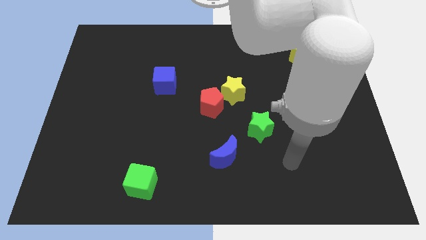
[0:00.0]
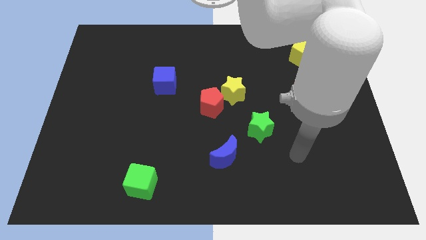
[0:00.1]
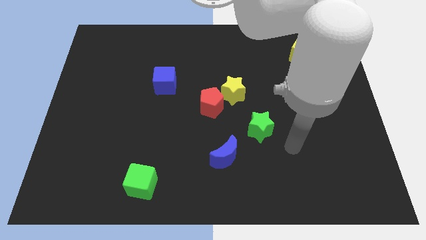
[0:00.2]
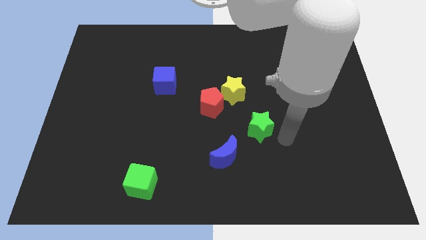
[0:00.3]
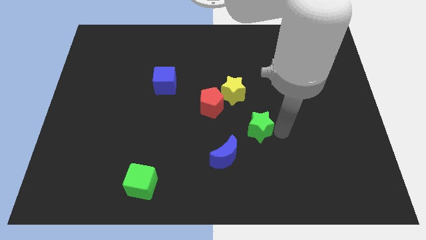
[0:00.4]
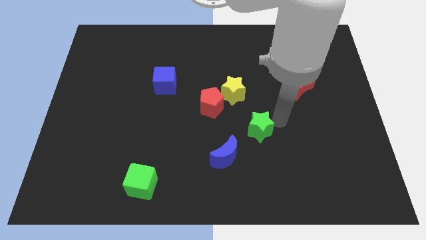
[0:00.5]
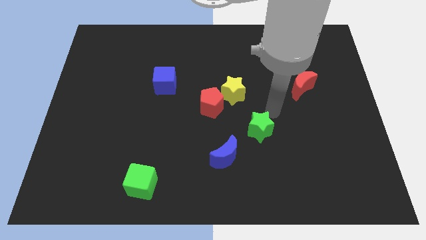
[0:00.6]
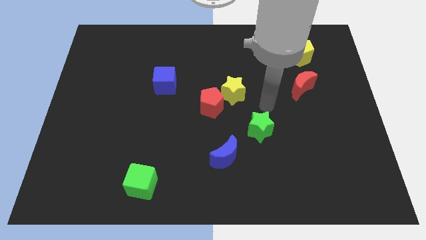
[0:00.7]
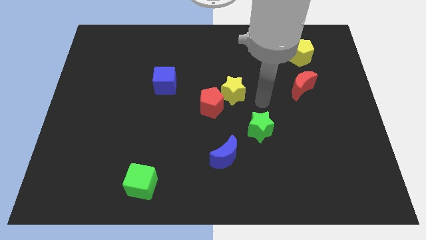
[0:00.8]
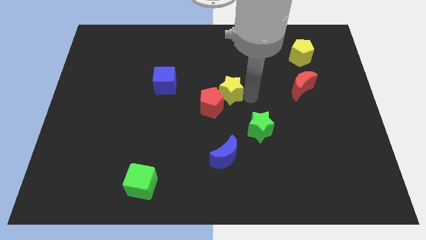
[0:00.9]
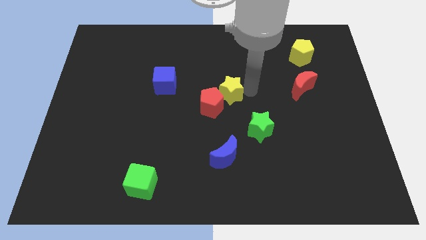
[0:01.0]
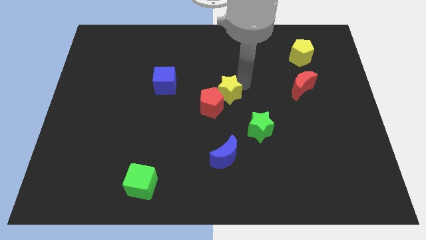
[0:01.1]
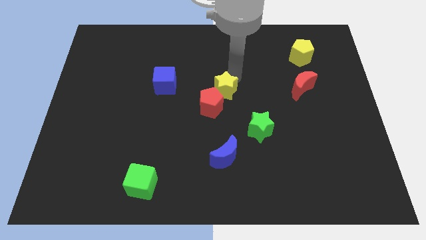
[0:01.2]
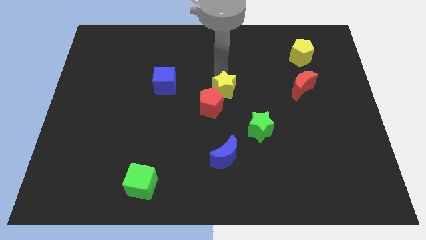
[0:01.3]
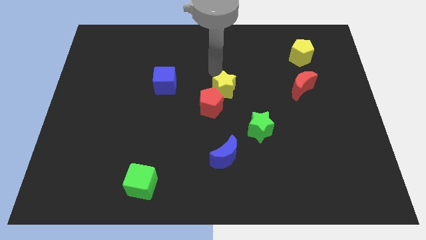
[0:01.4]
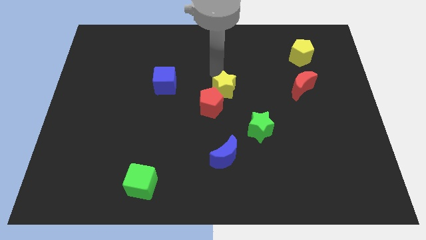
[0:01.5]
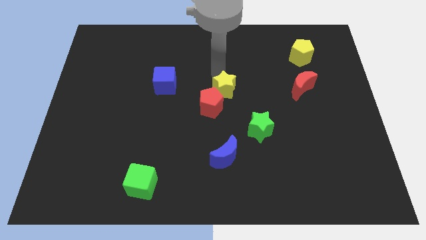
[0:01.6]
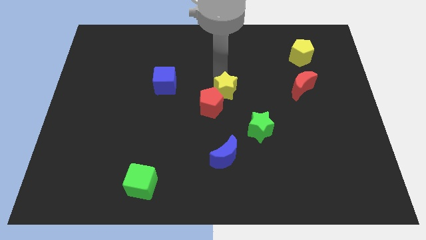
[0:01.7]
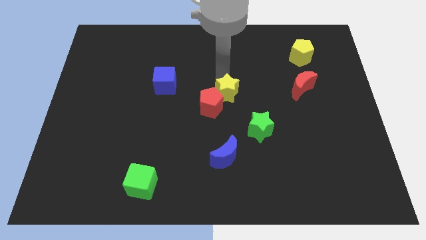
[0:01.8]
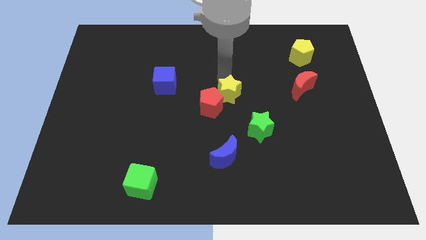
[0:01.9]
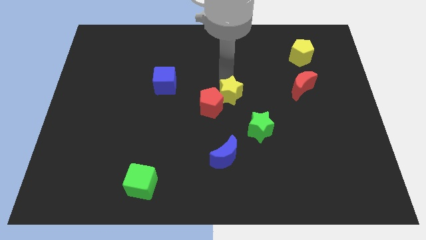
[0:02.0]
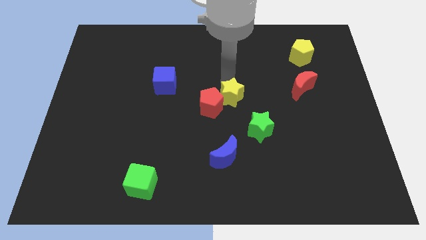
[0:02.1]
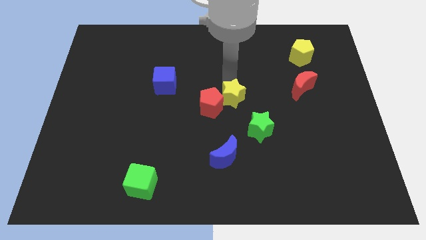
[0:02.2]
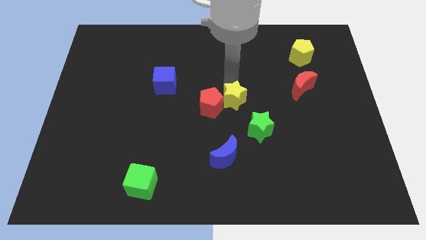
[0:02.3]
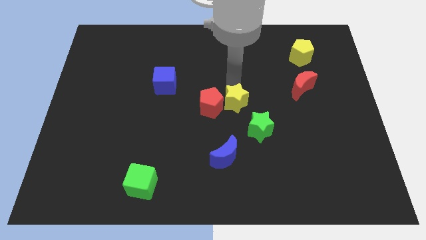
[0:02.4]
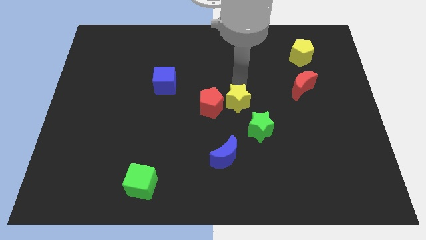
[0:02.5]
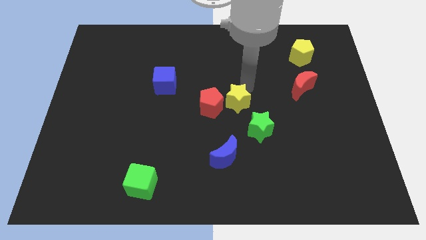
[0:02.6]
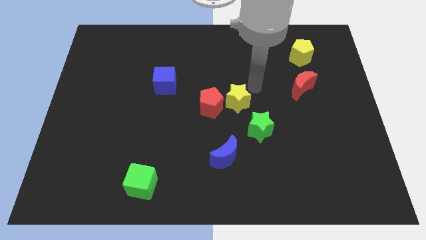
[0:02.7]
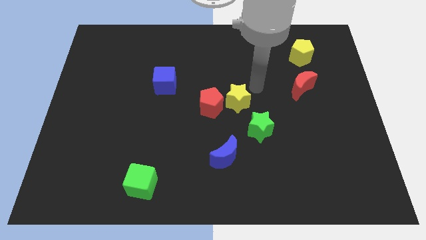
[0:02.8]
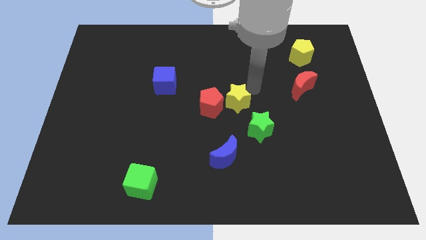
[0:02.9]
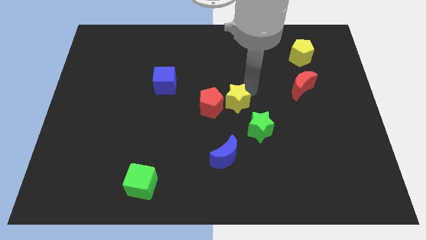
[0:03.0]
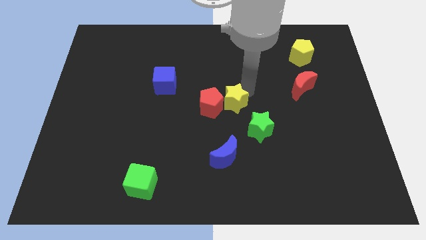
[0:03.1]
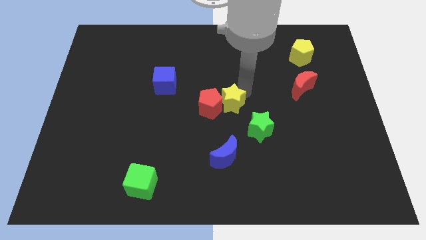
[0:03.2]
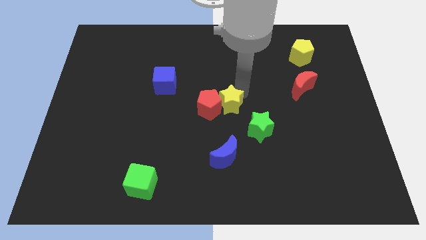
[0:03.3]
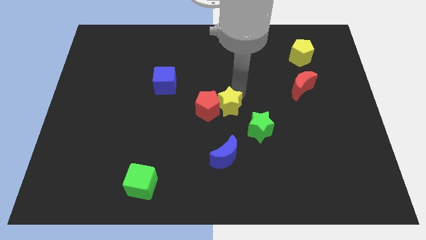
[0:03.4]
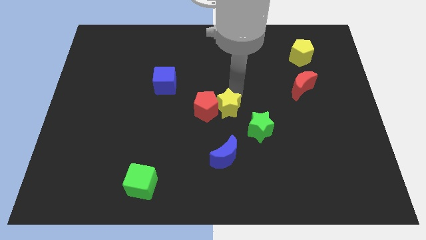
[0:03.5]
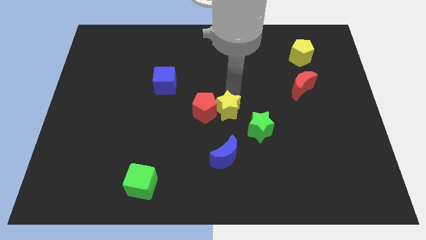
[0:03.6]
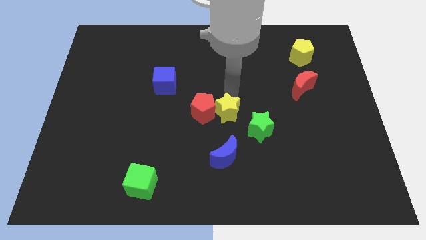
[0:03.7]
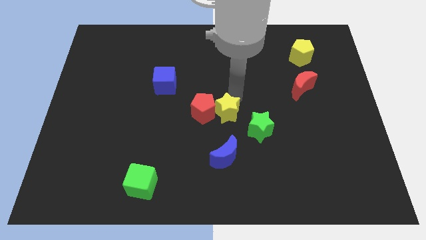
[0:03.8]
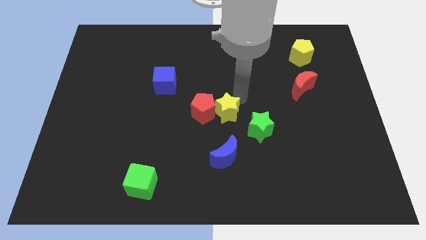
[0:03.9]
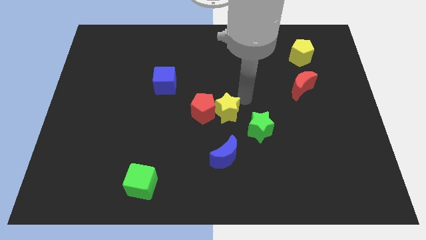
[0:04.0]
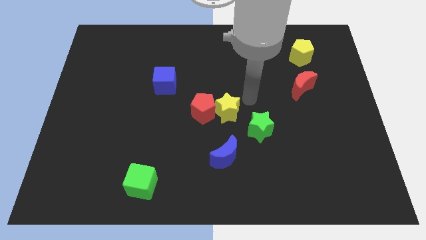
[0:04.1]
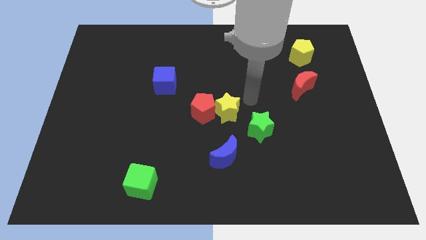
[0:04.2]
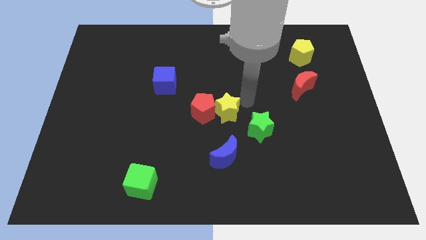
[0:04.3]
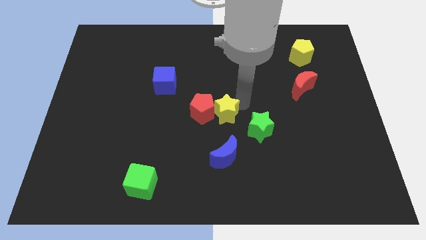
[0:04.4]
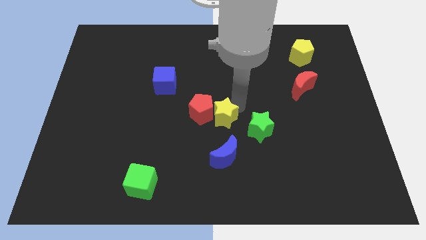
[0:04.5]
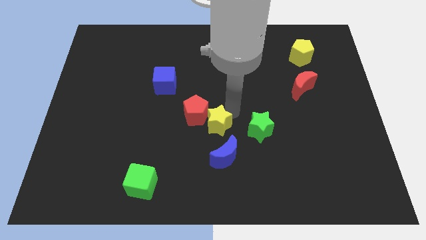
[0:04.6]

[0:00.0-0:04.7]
slightly move the yellow star downwards and then to the left

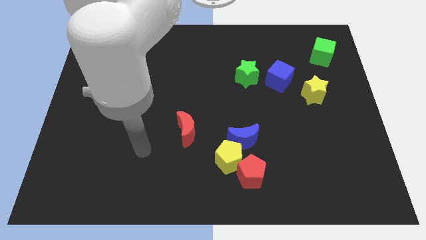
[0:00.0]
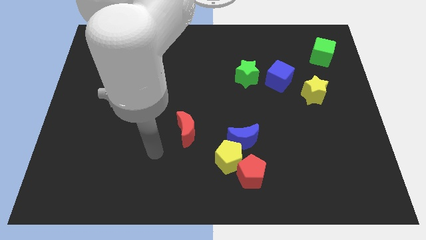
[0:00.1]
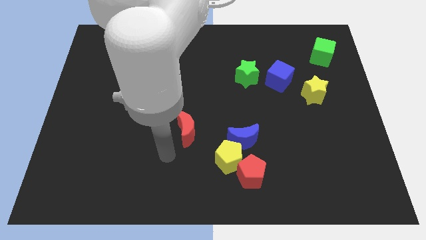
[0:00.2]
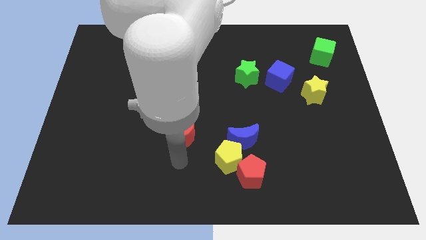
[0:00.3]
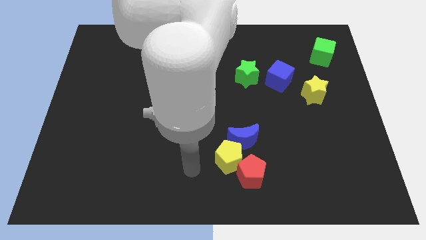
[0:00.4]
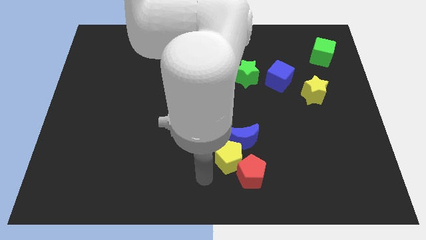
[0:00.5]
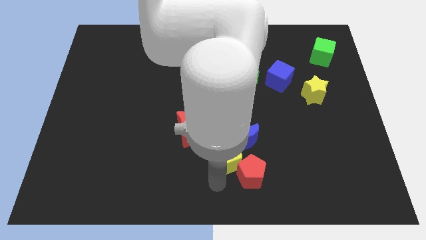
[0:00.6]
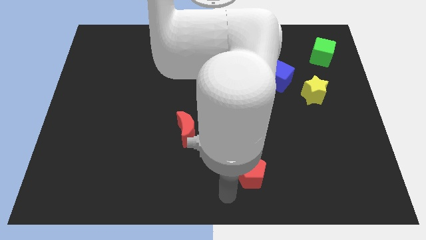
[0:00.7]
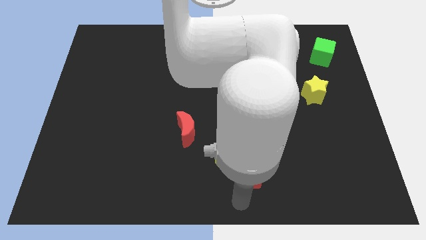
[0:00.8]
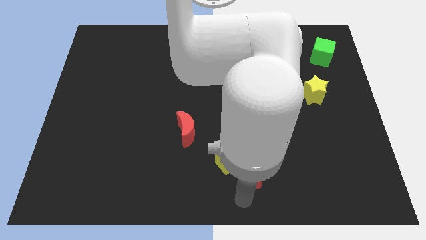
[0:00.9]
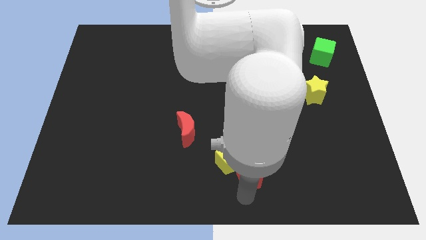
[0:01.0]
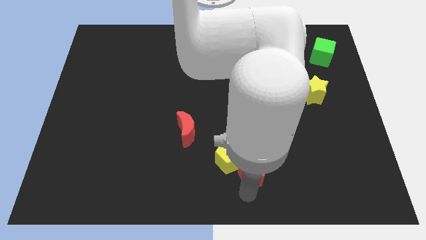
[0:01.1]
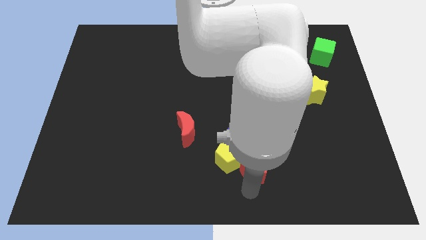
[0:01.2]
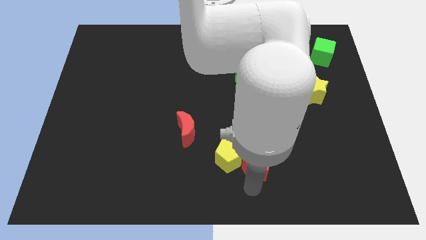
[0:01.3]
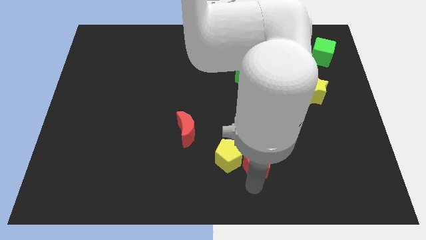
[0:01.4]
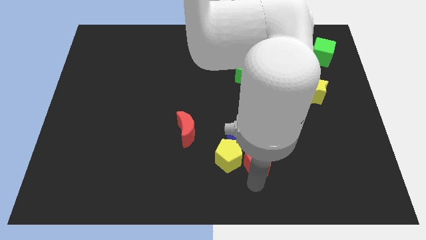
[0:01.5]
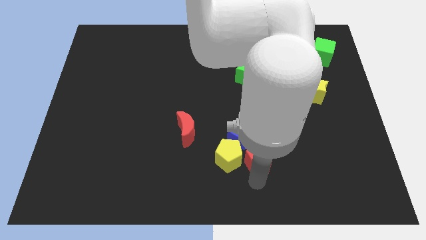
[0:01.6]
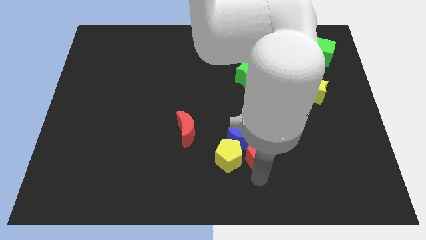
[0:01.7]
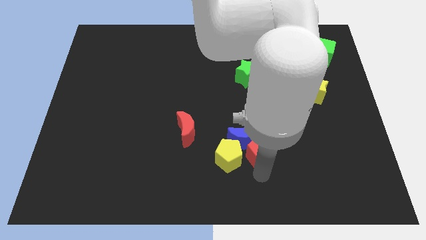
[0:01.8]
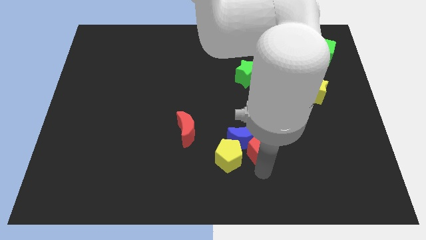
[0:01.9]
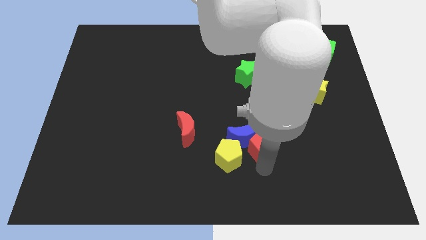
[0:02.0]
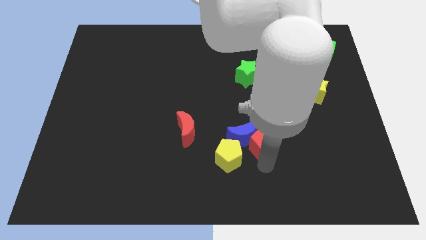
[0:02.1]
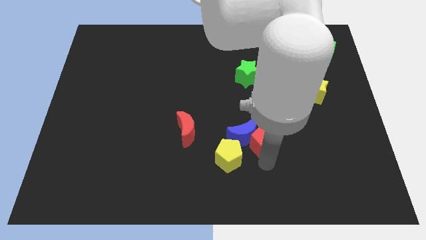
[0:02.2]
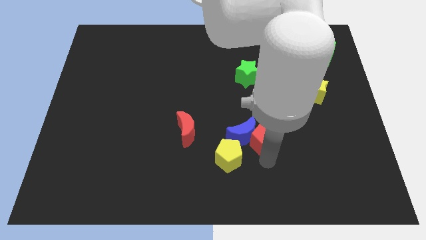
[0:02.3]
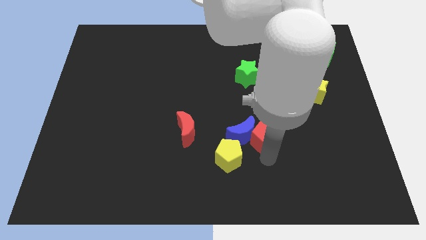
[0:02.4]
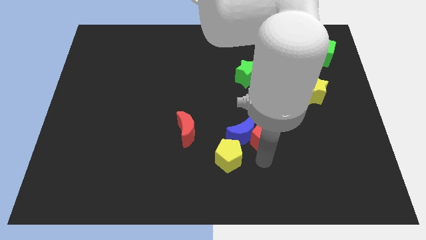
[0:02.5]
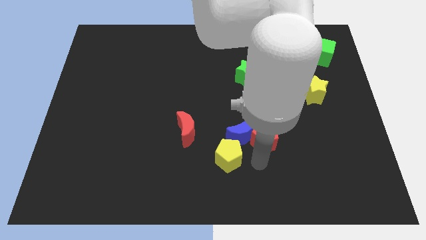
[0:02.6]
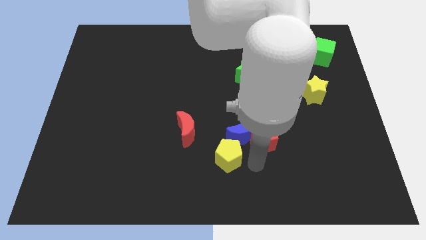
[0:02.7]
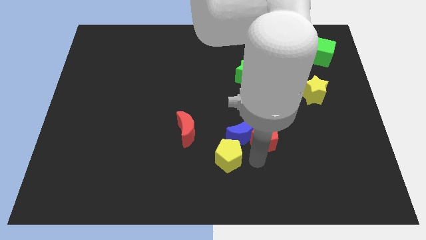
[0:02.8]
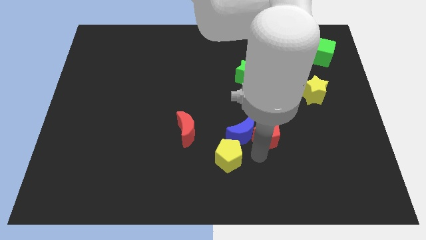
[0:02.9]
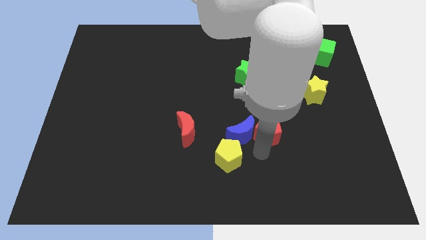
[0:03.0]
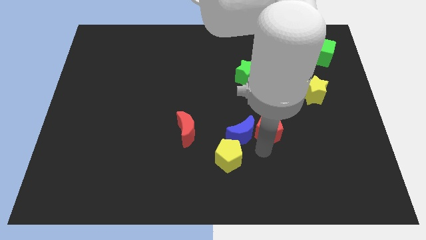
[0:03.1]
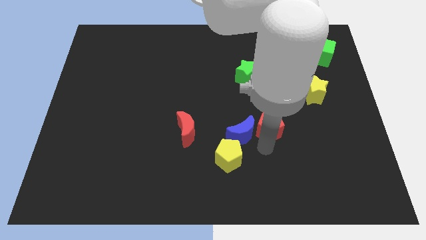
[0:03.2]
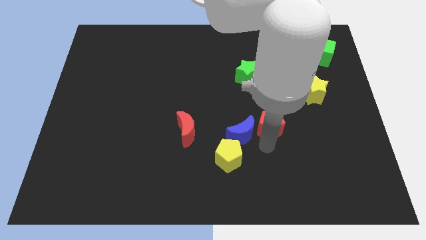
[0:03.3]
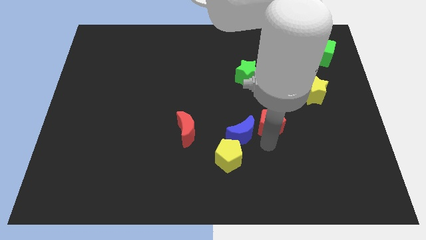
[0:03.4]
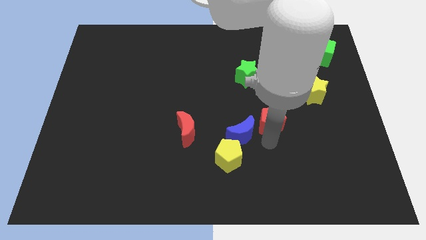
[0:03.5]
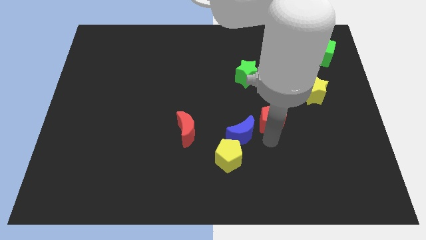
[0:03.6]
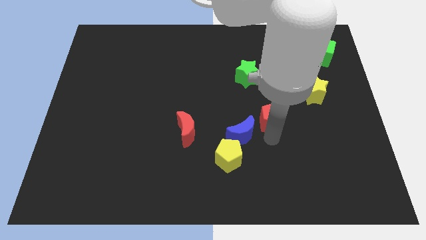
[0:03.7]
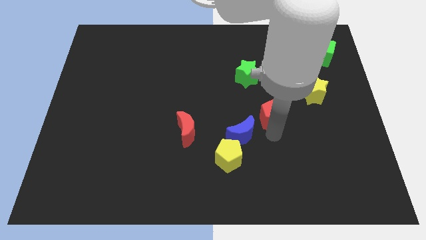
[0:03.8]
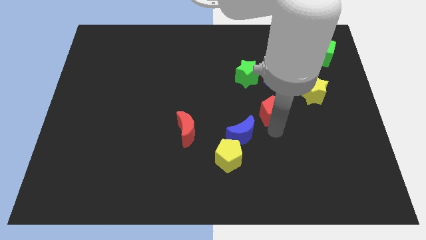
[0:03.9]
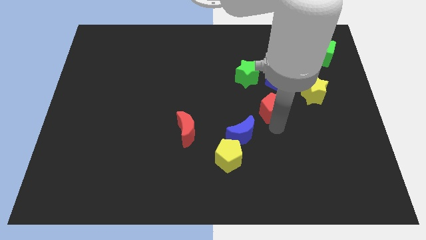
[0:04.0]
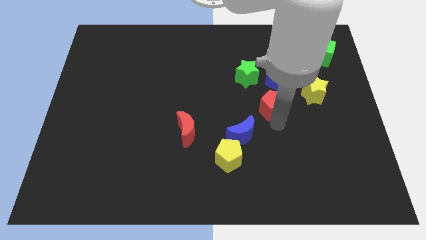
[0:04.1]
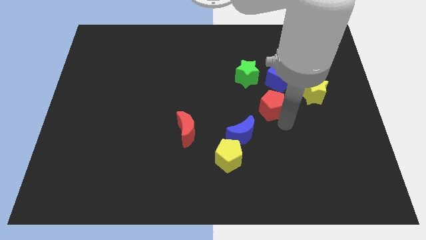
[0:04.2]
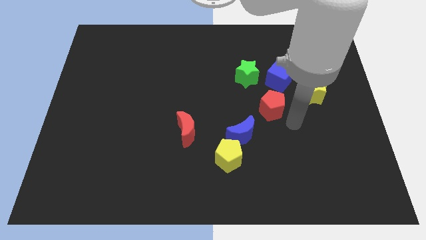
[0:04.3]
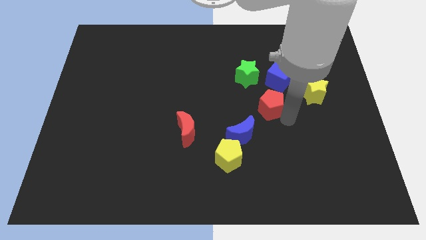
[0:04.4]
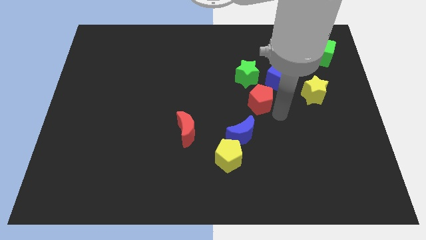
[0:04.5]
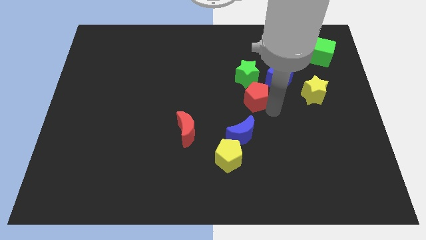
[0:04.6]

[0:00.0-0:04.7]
push the red pentagon up
